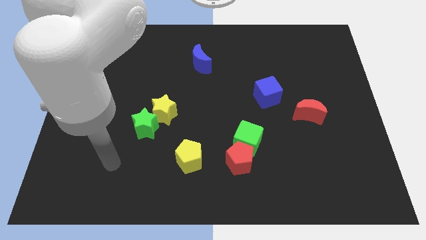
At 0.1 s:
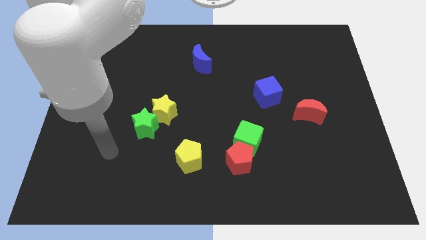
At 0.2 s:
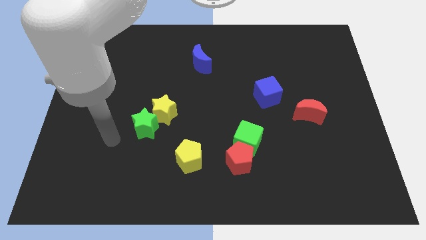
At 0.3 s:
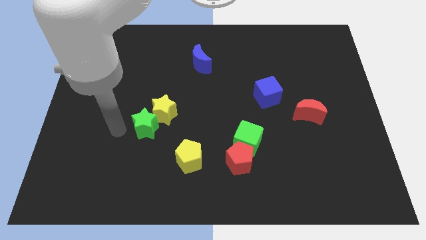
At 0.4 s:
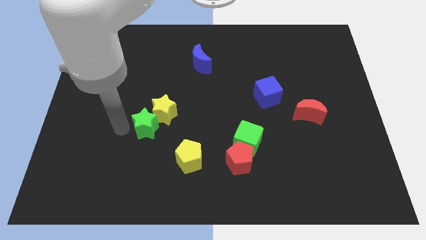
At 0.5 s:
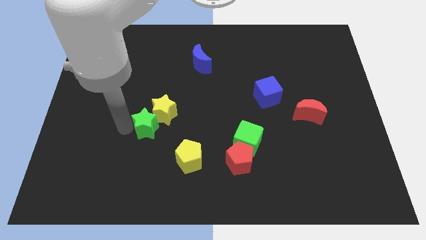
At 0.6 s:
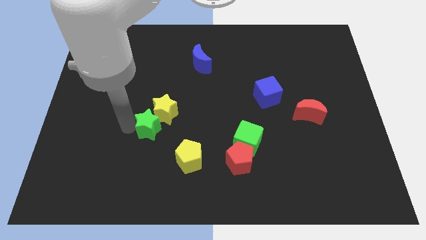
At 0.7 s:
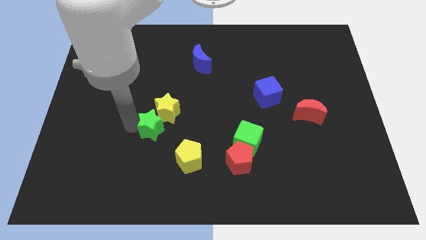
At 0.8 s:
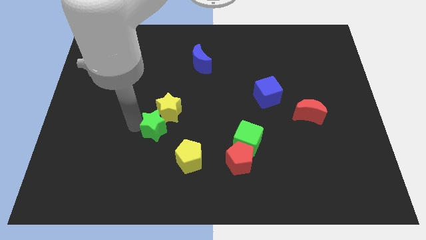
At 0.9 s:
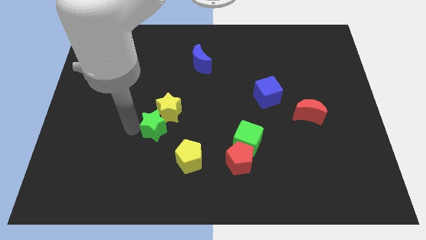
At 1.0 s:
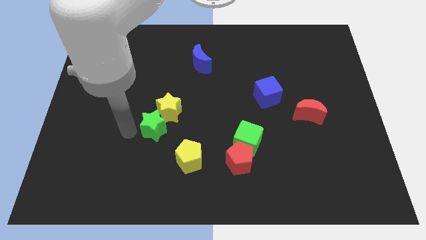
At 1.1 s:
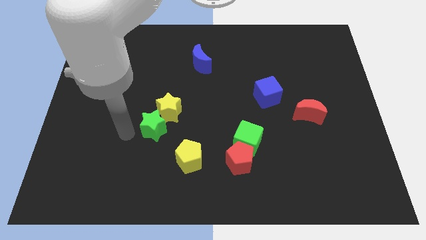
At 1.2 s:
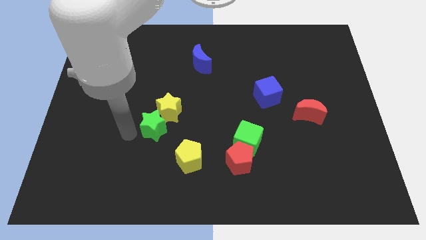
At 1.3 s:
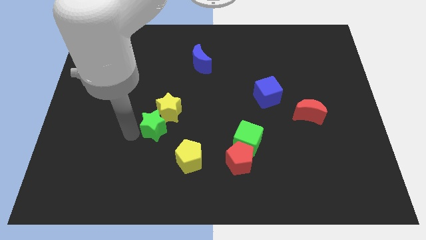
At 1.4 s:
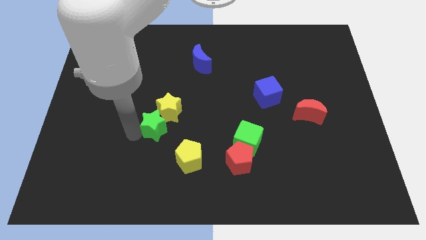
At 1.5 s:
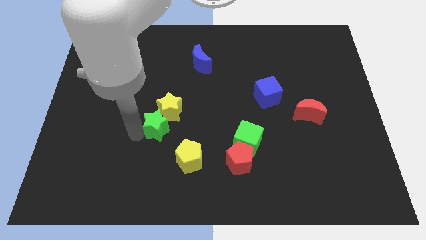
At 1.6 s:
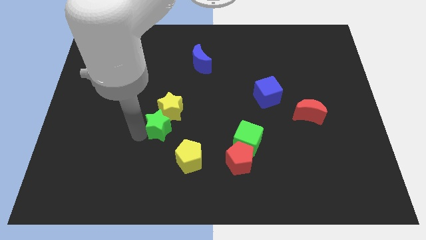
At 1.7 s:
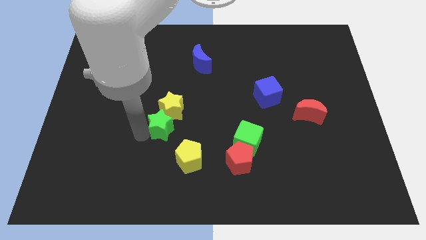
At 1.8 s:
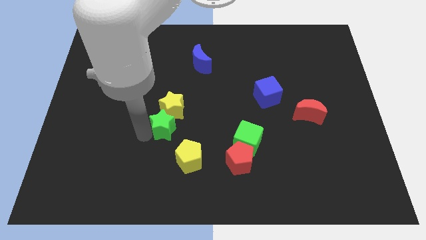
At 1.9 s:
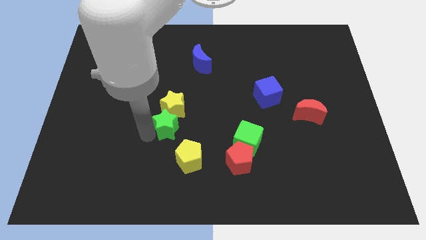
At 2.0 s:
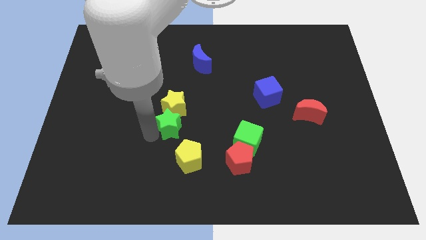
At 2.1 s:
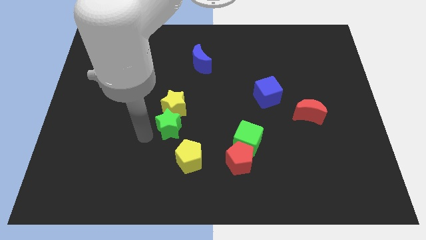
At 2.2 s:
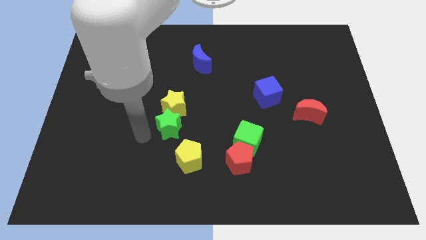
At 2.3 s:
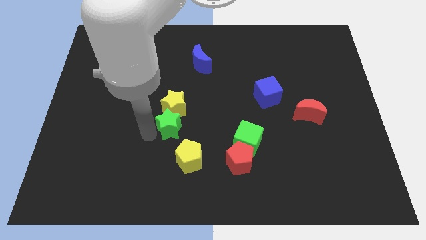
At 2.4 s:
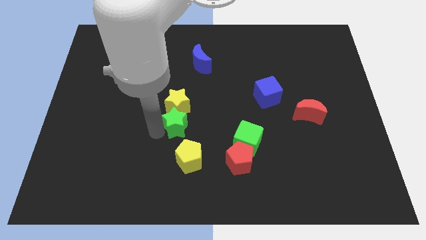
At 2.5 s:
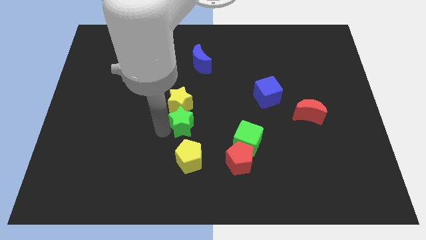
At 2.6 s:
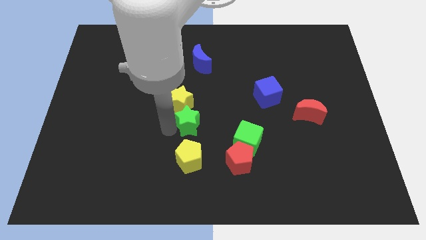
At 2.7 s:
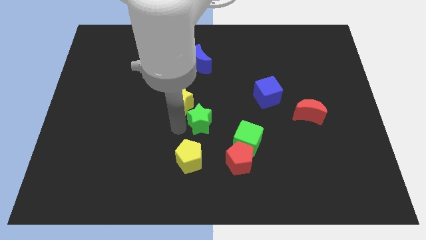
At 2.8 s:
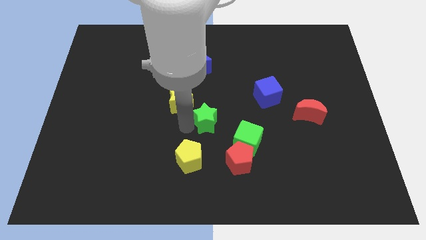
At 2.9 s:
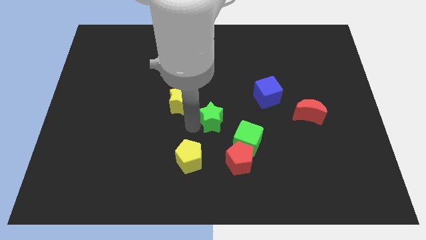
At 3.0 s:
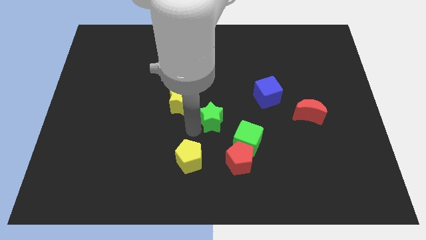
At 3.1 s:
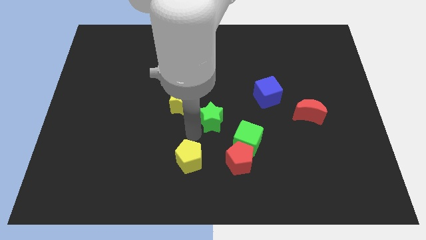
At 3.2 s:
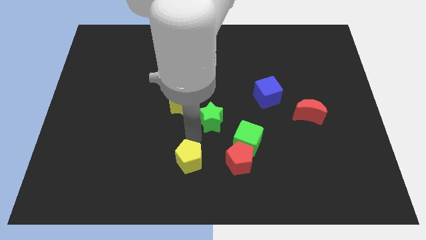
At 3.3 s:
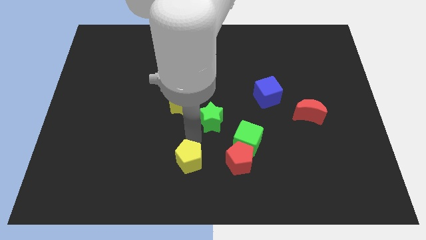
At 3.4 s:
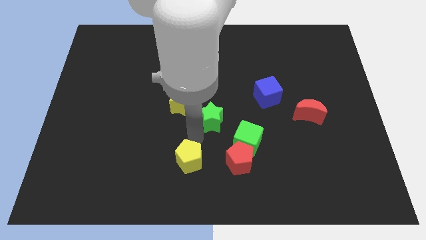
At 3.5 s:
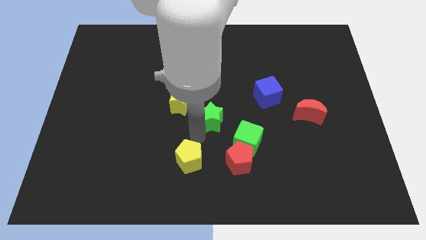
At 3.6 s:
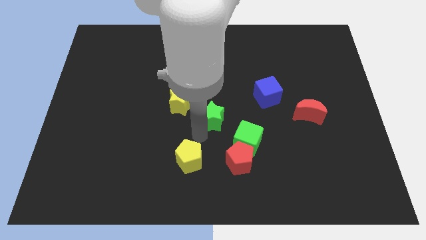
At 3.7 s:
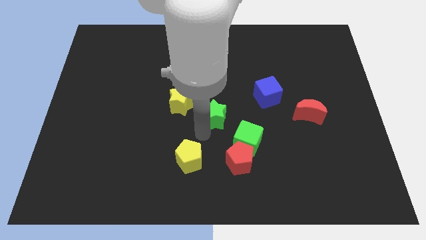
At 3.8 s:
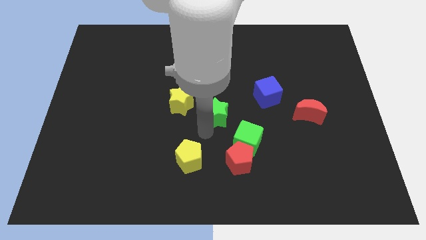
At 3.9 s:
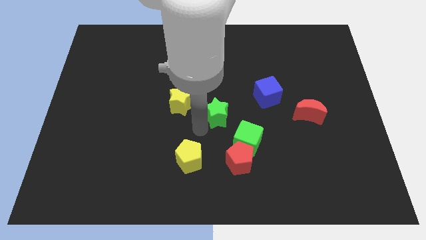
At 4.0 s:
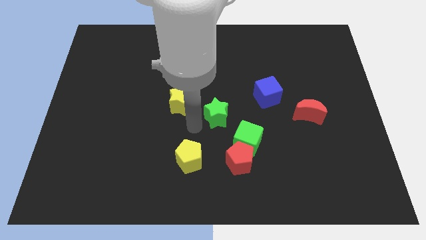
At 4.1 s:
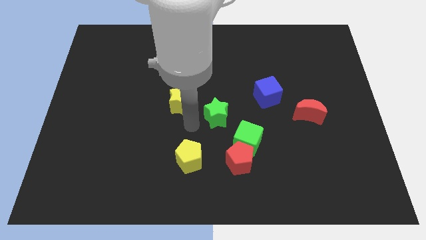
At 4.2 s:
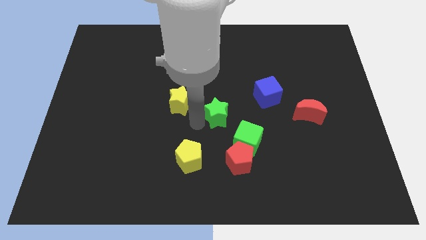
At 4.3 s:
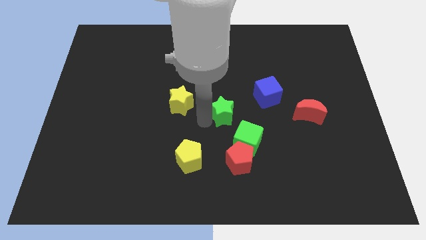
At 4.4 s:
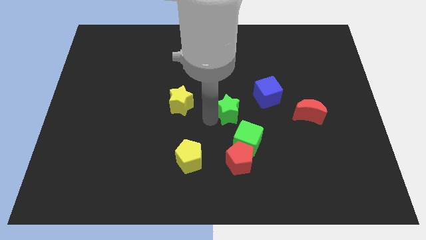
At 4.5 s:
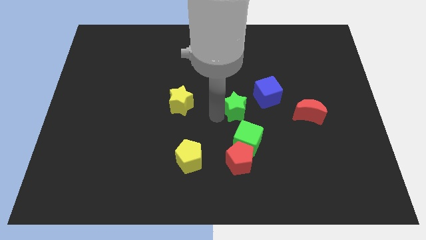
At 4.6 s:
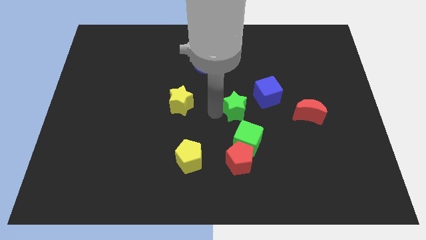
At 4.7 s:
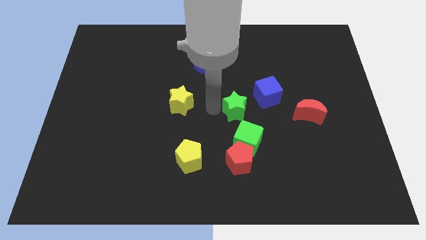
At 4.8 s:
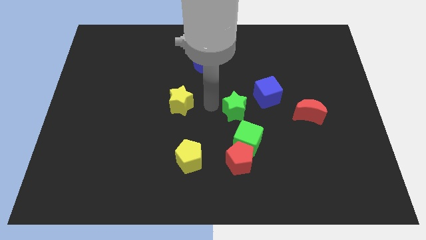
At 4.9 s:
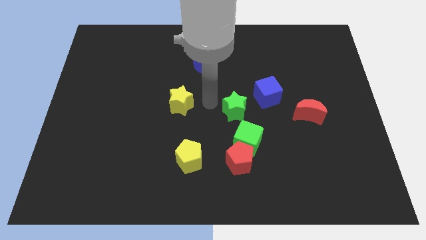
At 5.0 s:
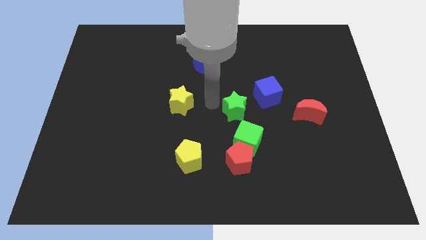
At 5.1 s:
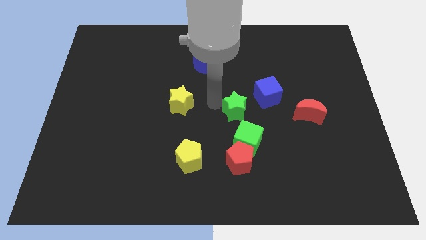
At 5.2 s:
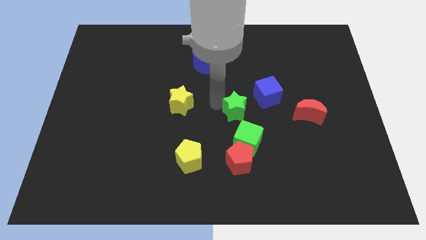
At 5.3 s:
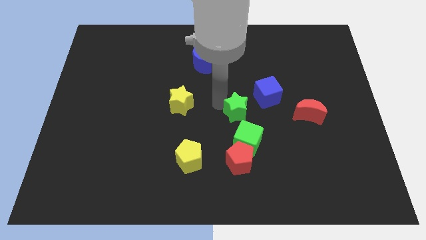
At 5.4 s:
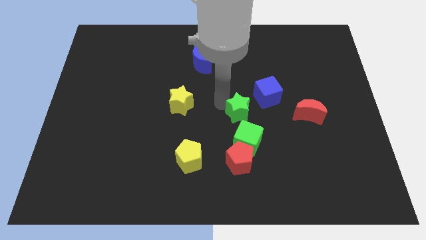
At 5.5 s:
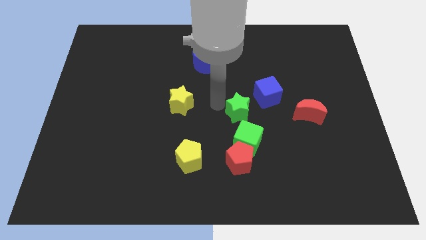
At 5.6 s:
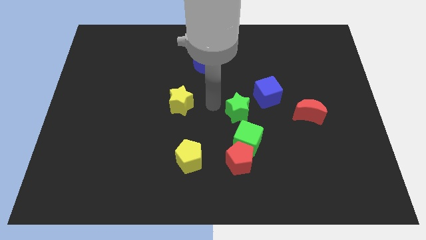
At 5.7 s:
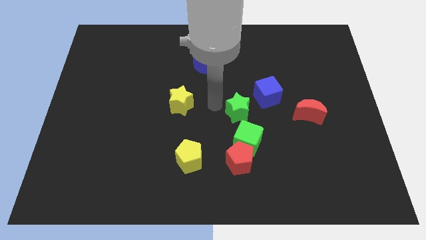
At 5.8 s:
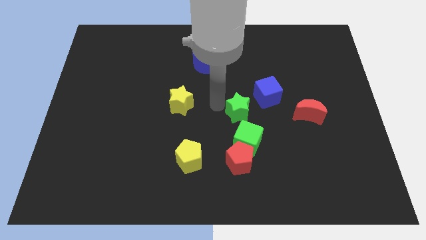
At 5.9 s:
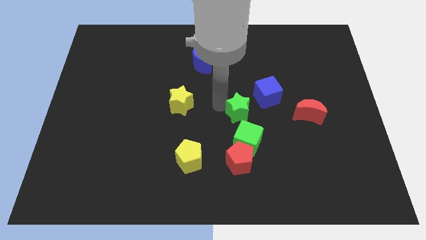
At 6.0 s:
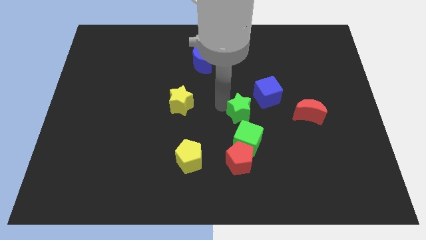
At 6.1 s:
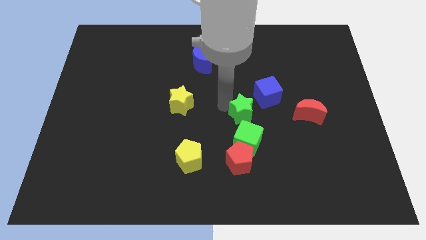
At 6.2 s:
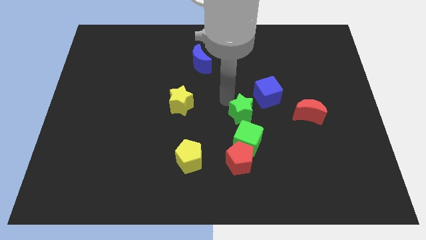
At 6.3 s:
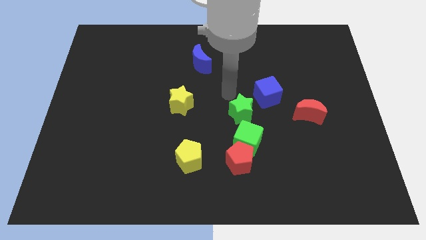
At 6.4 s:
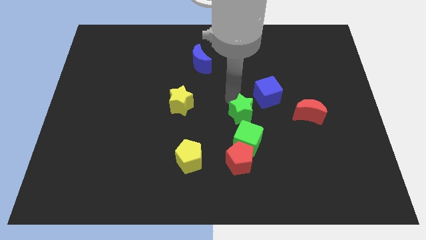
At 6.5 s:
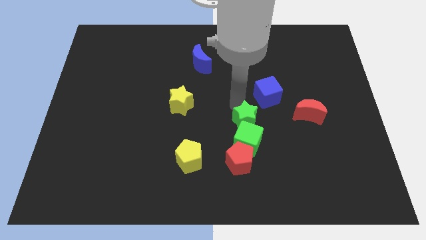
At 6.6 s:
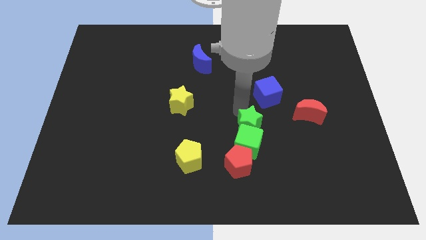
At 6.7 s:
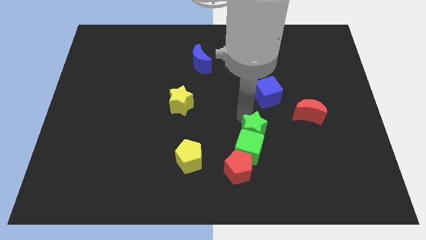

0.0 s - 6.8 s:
slide the green star diagonally up and to the right of the red pentagon
